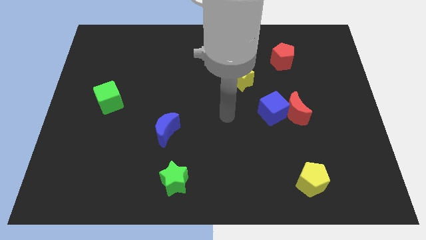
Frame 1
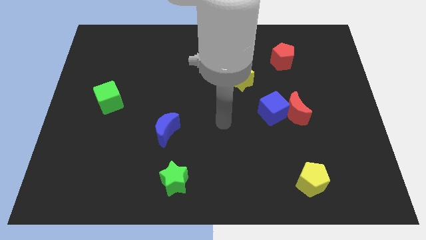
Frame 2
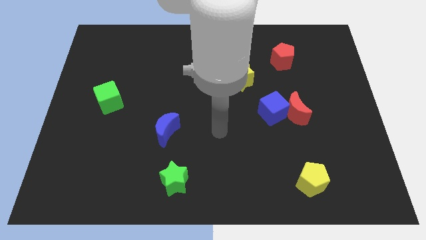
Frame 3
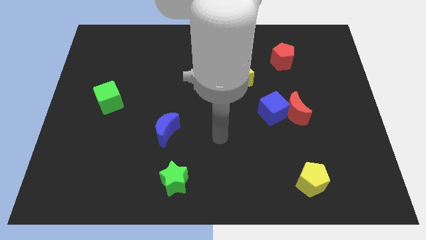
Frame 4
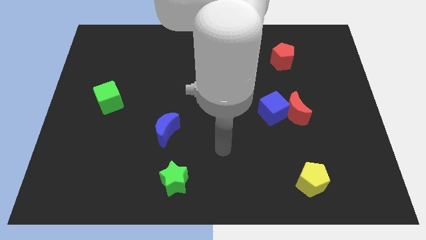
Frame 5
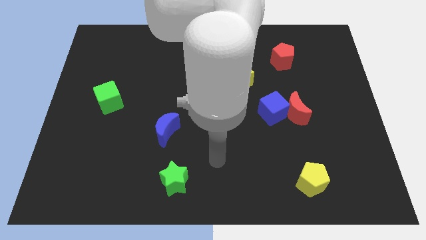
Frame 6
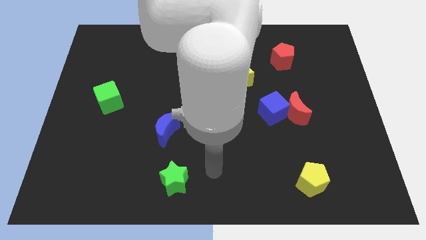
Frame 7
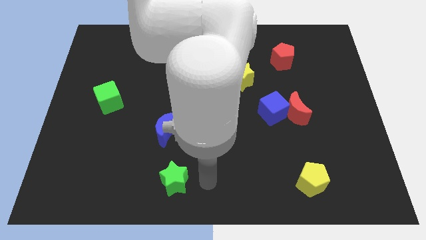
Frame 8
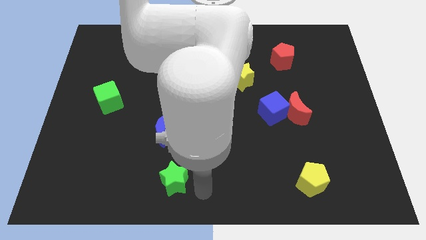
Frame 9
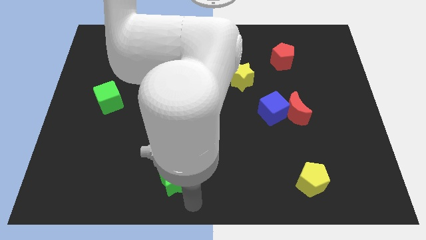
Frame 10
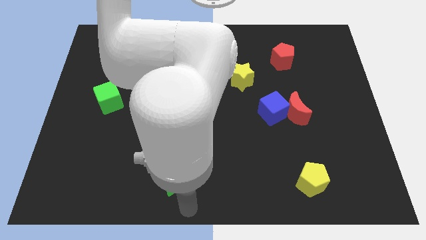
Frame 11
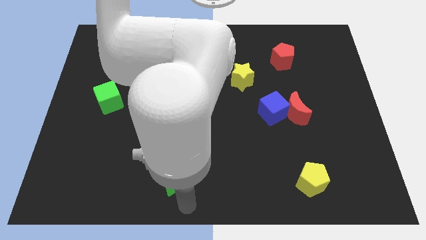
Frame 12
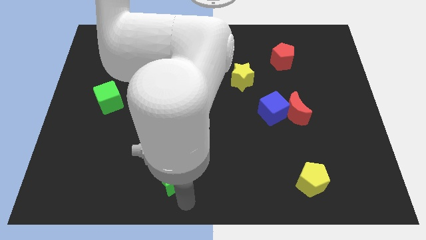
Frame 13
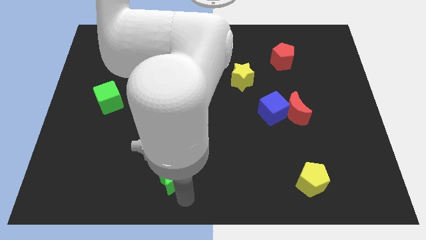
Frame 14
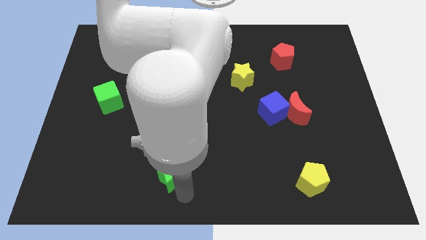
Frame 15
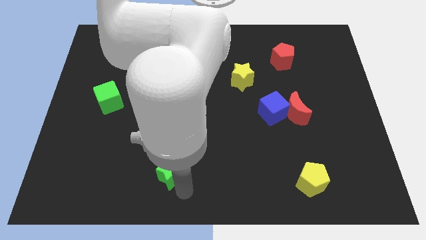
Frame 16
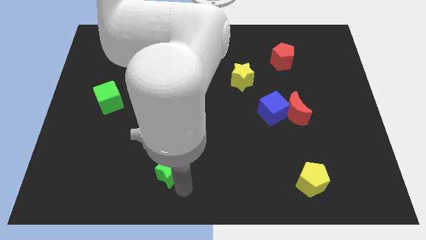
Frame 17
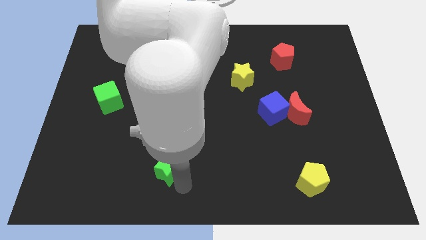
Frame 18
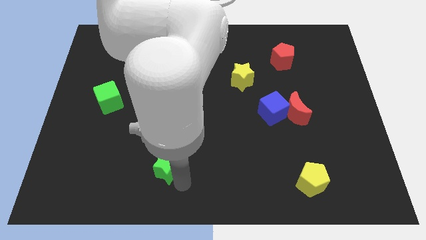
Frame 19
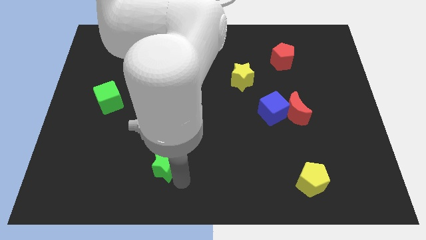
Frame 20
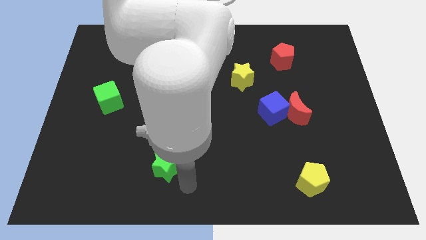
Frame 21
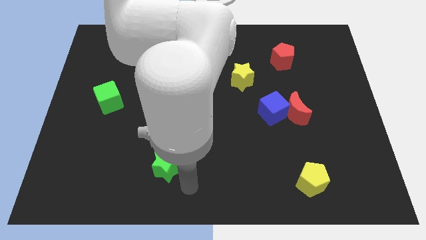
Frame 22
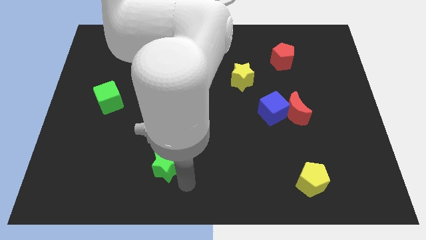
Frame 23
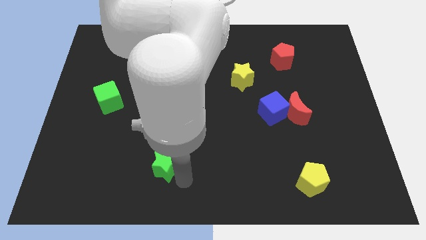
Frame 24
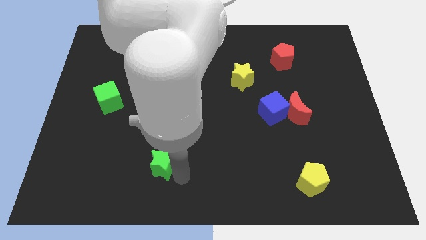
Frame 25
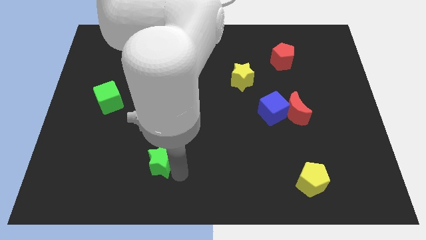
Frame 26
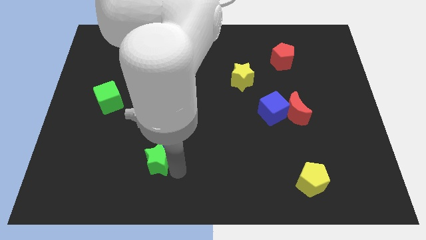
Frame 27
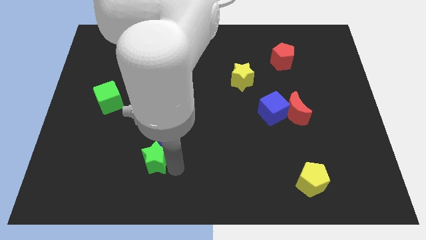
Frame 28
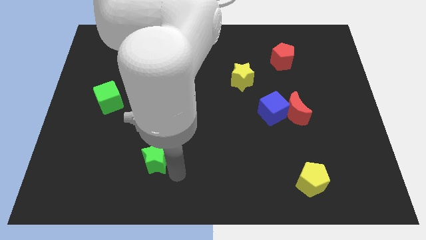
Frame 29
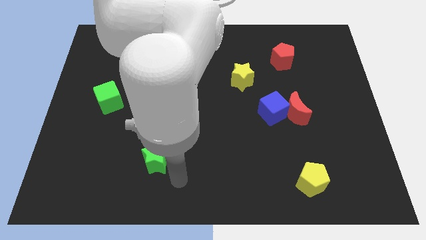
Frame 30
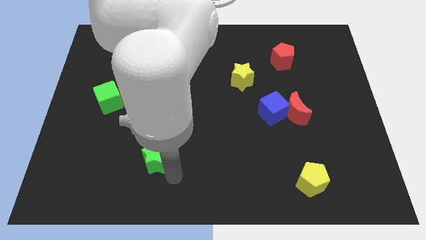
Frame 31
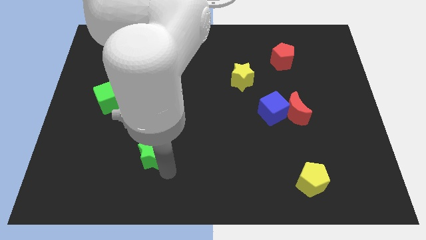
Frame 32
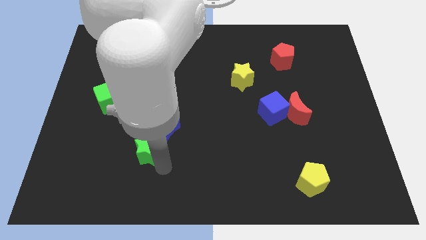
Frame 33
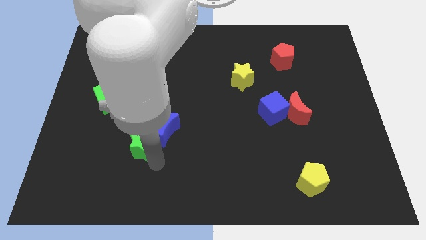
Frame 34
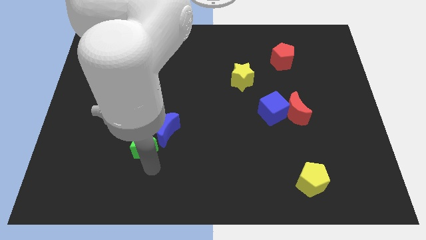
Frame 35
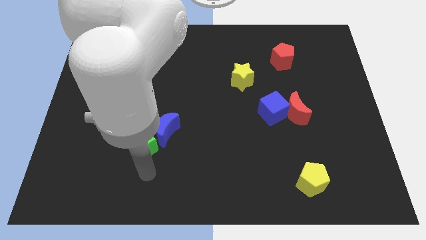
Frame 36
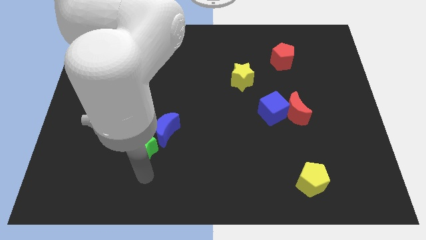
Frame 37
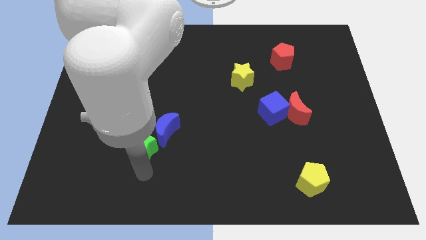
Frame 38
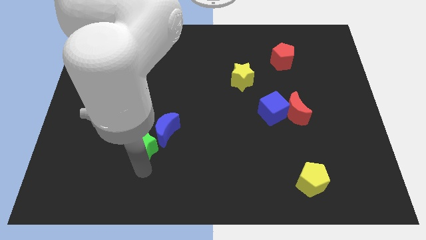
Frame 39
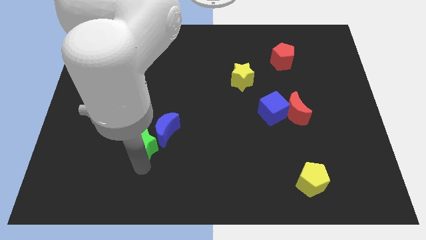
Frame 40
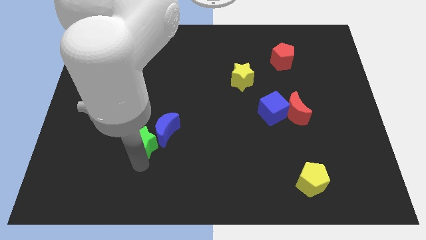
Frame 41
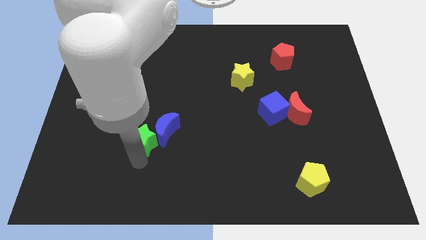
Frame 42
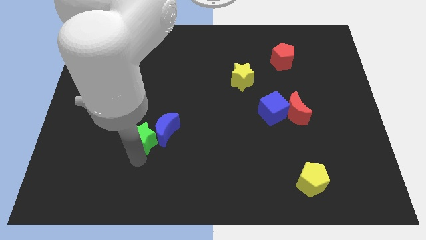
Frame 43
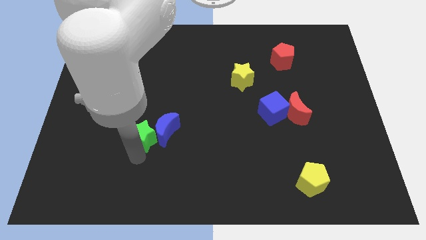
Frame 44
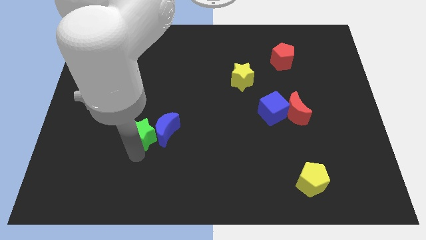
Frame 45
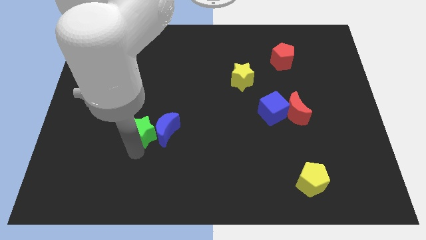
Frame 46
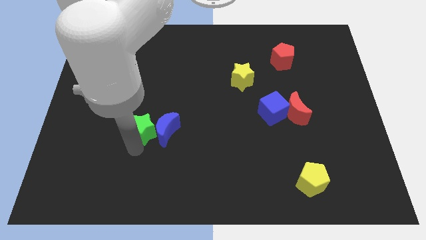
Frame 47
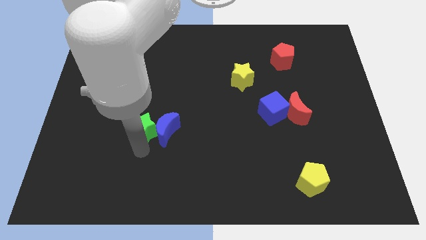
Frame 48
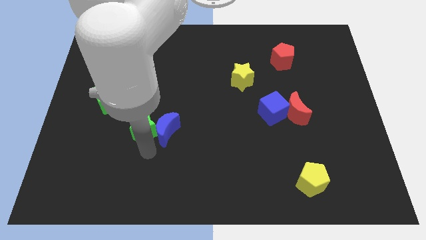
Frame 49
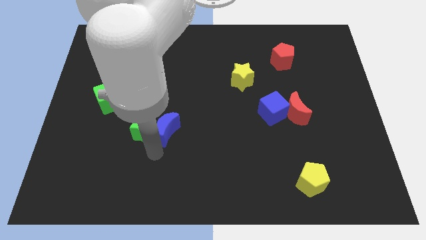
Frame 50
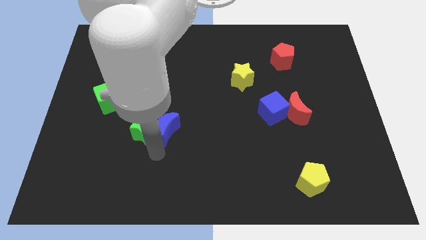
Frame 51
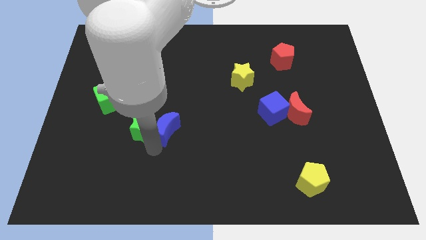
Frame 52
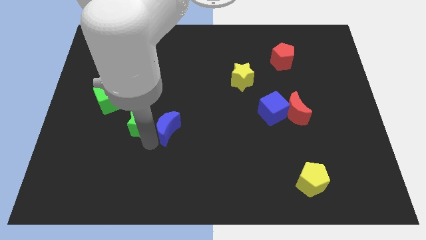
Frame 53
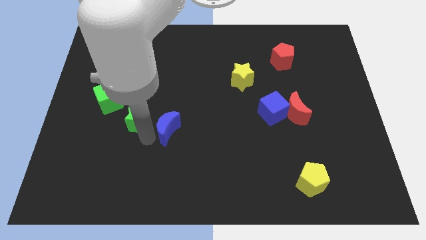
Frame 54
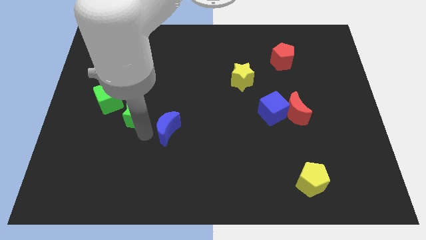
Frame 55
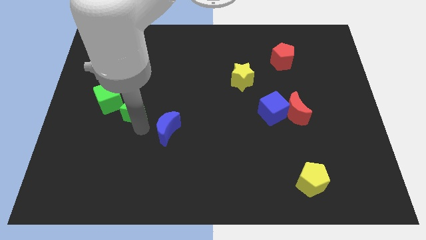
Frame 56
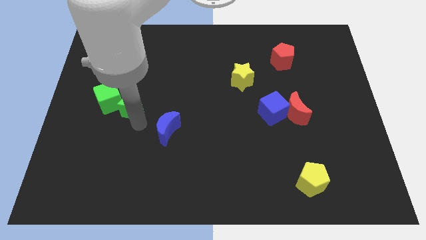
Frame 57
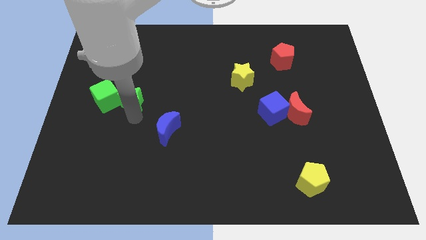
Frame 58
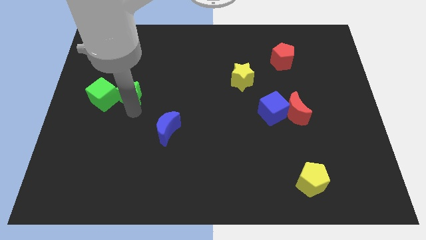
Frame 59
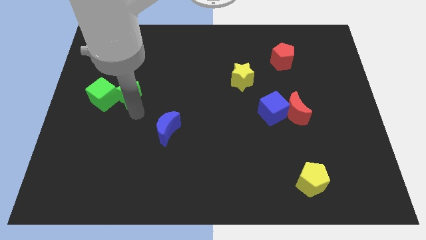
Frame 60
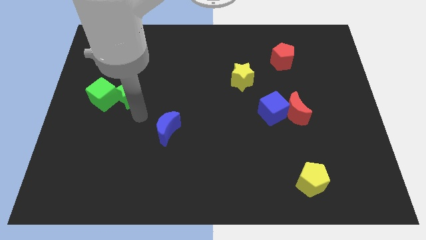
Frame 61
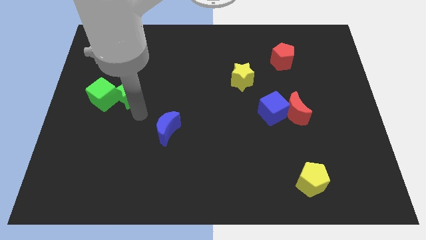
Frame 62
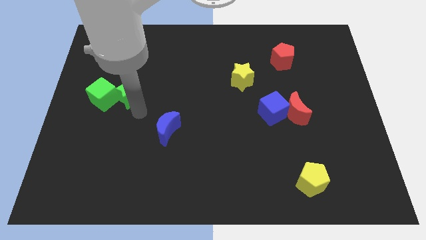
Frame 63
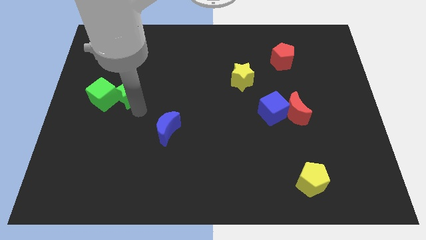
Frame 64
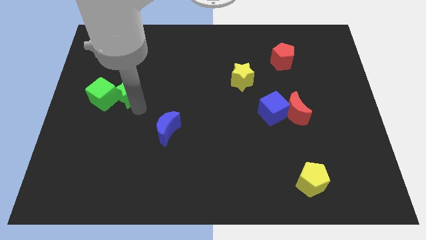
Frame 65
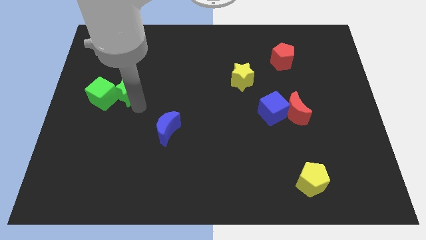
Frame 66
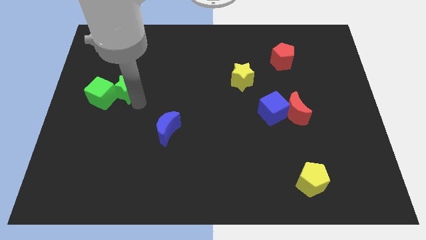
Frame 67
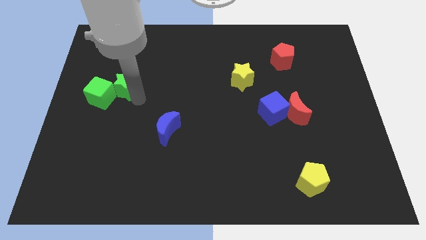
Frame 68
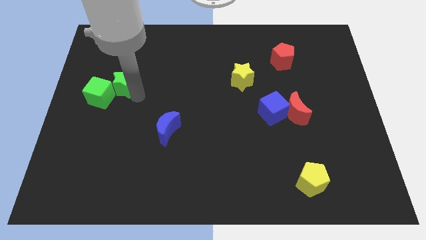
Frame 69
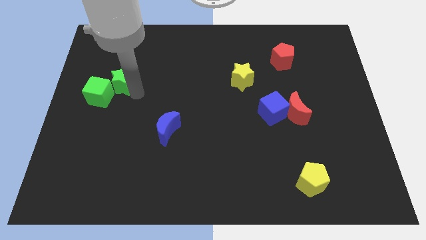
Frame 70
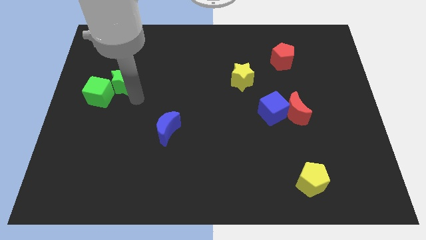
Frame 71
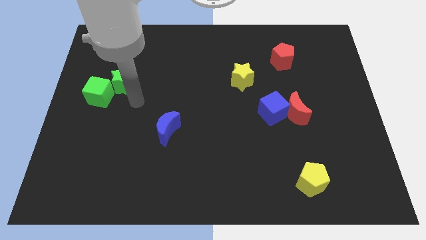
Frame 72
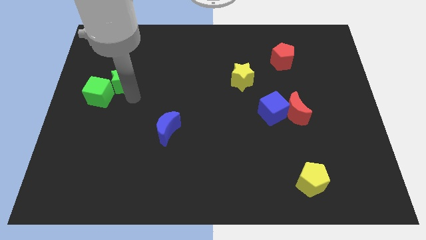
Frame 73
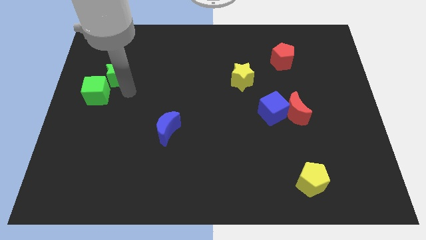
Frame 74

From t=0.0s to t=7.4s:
push the green star to the top side of the green cube
